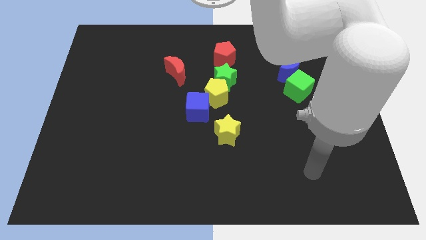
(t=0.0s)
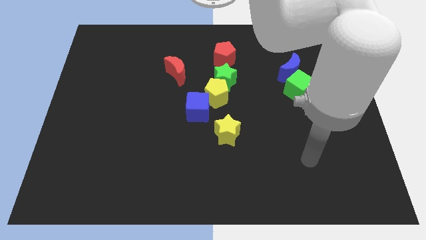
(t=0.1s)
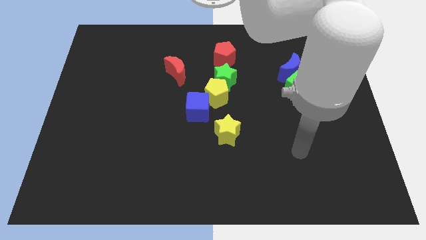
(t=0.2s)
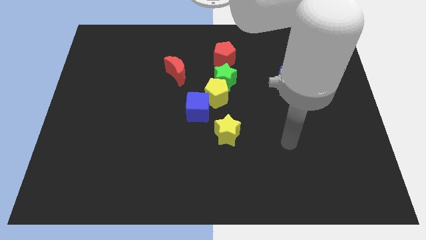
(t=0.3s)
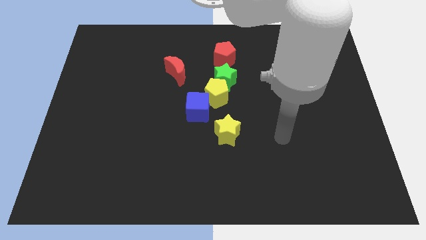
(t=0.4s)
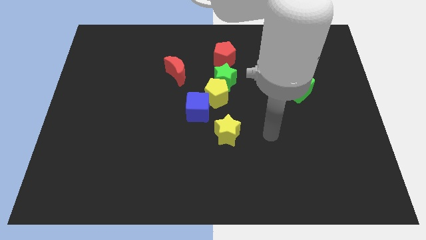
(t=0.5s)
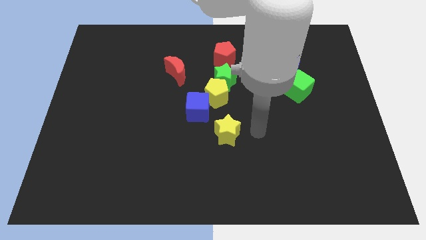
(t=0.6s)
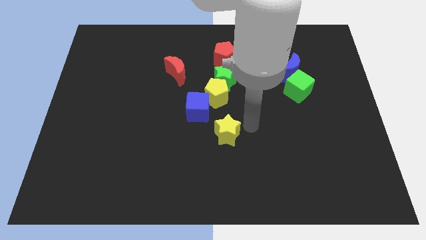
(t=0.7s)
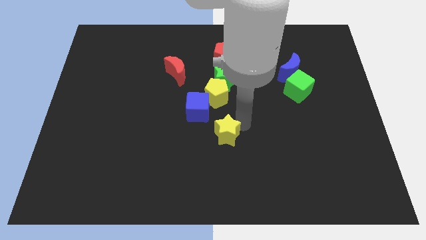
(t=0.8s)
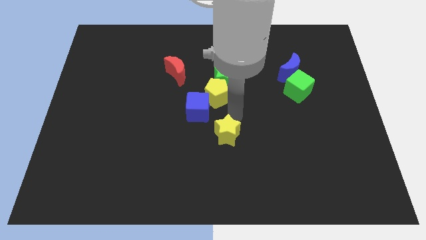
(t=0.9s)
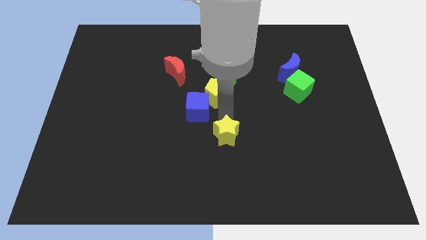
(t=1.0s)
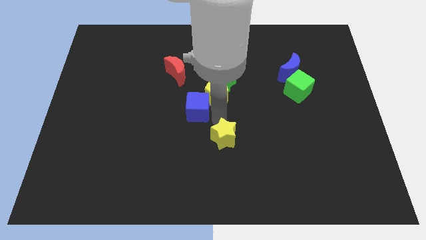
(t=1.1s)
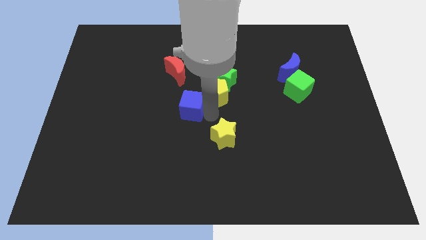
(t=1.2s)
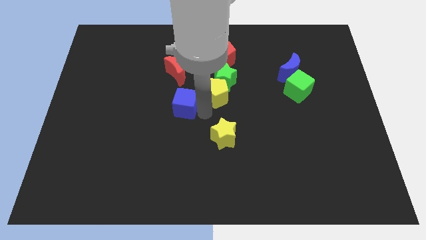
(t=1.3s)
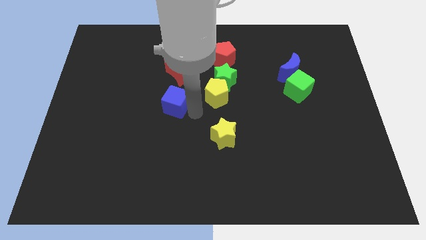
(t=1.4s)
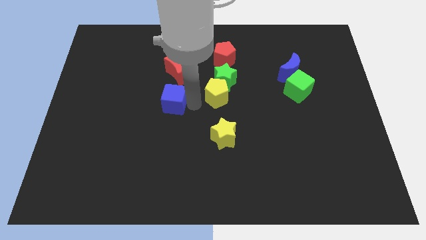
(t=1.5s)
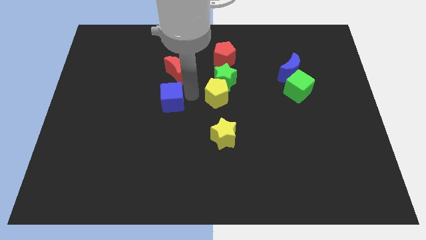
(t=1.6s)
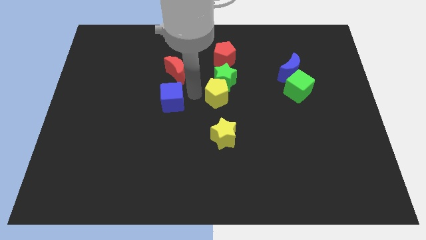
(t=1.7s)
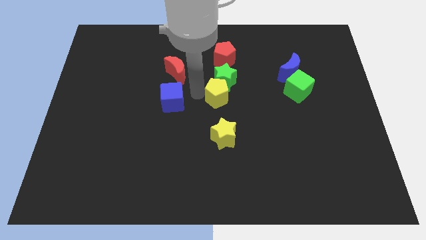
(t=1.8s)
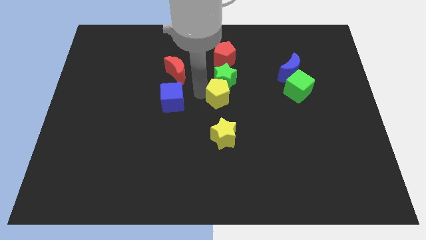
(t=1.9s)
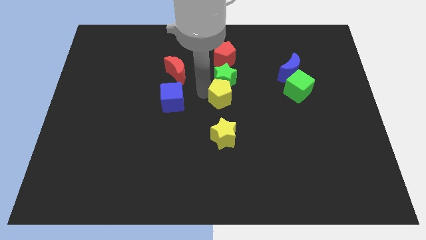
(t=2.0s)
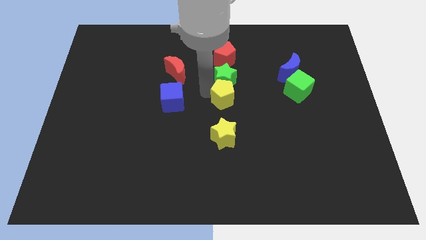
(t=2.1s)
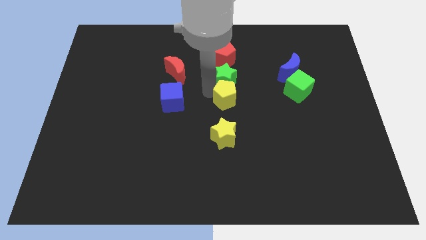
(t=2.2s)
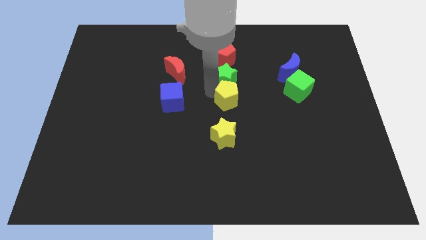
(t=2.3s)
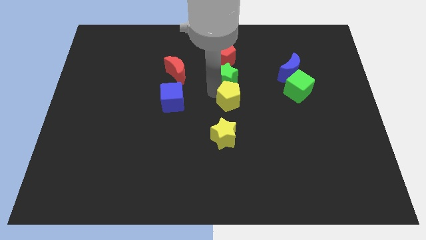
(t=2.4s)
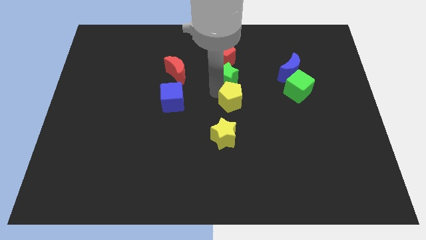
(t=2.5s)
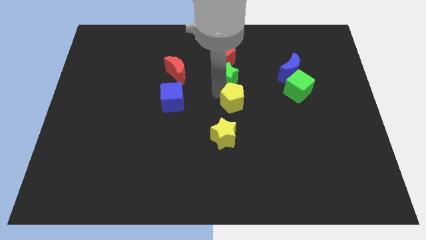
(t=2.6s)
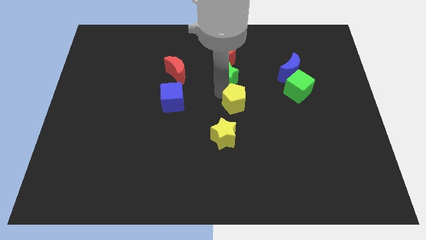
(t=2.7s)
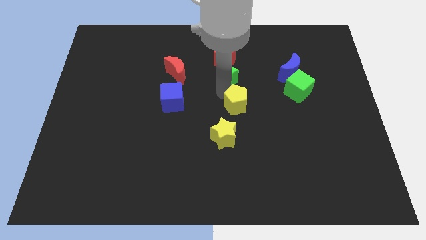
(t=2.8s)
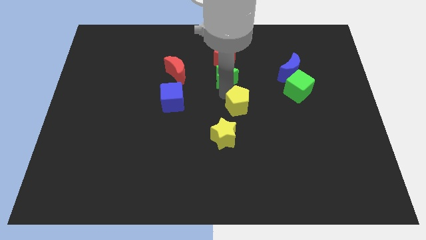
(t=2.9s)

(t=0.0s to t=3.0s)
separate the yellow pentagon from the green star and blue cube

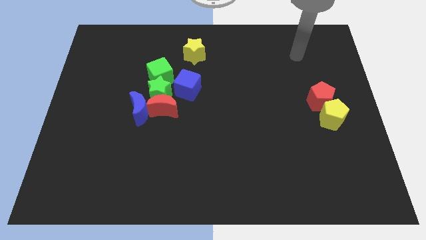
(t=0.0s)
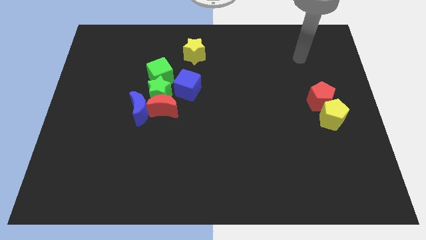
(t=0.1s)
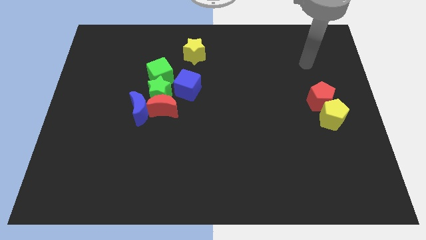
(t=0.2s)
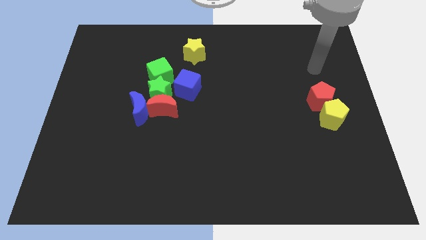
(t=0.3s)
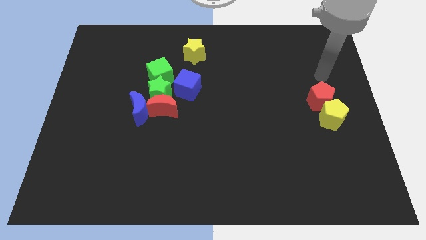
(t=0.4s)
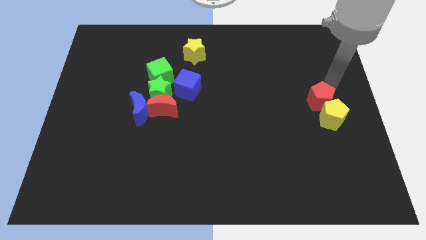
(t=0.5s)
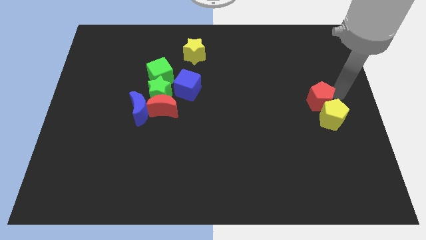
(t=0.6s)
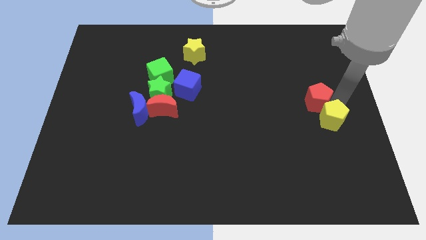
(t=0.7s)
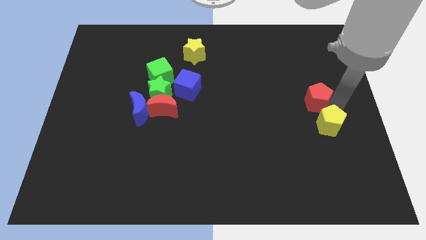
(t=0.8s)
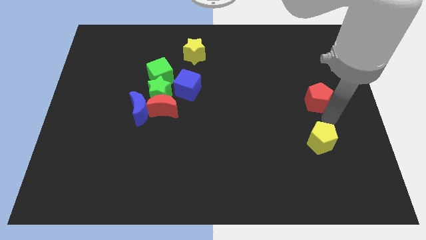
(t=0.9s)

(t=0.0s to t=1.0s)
move the red pentagon away from the yellow pentagon

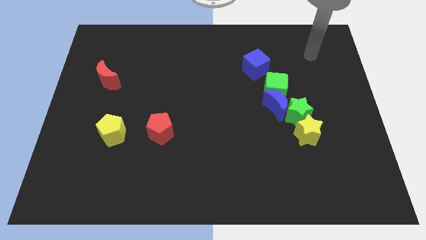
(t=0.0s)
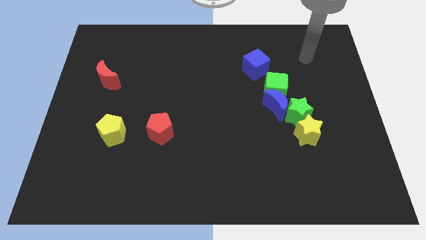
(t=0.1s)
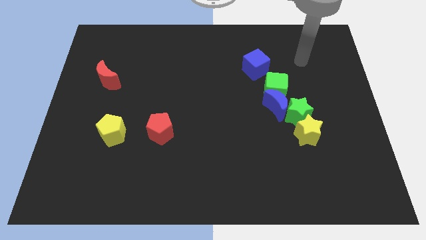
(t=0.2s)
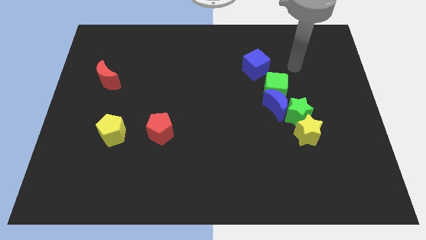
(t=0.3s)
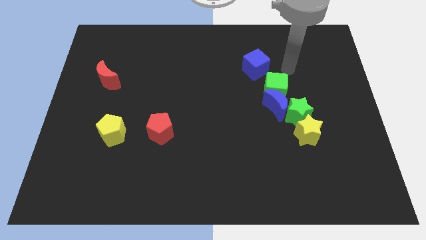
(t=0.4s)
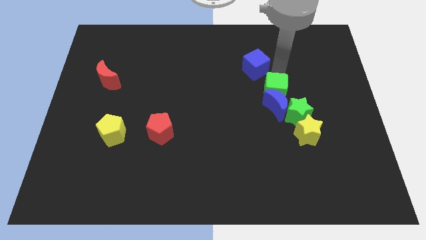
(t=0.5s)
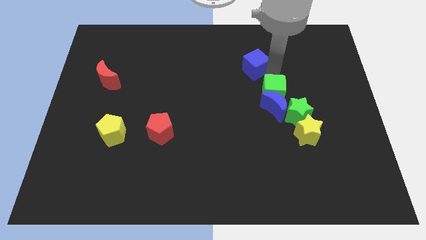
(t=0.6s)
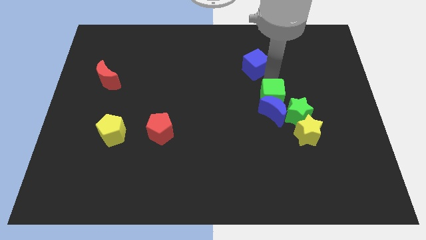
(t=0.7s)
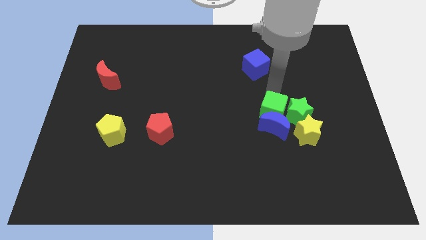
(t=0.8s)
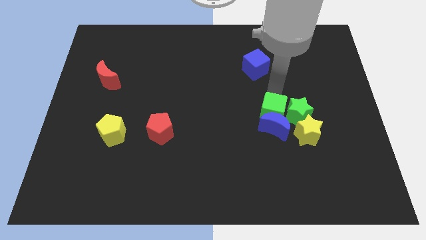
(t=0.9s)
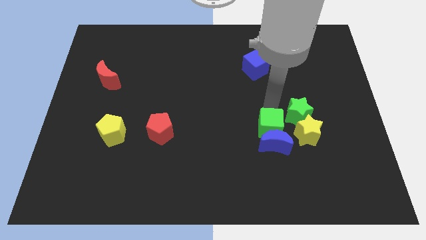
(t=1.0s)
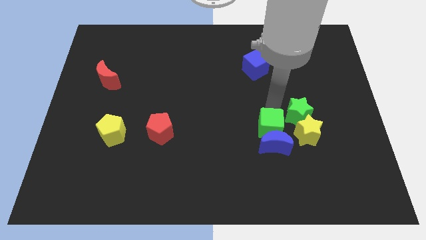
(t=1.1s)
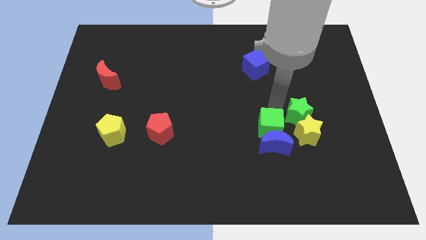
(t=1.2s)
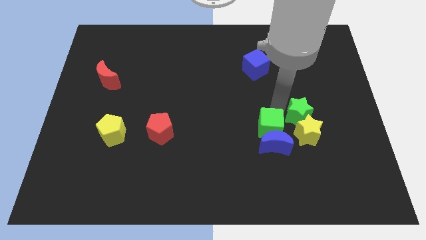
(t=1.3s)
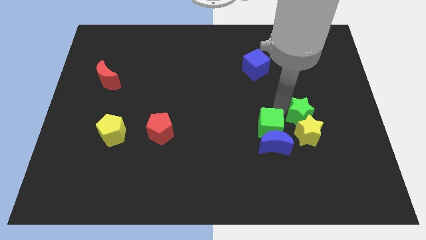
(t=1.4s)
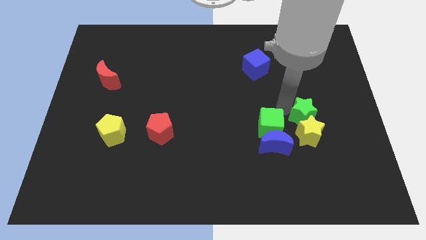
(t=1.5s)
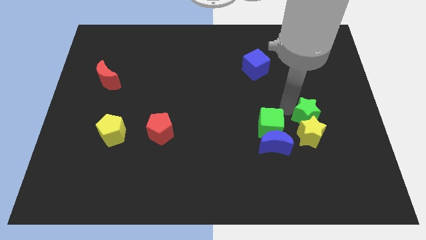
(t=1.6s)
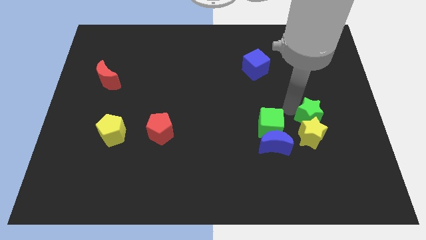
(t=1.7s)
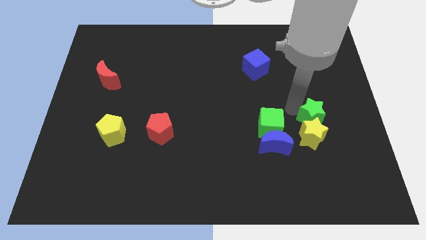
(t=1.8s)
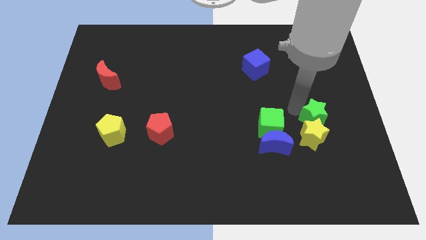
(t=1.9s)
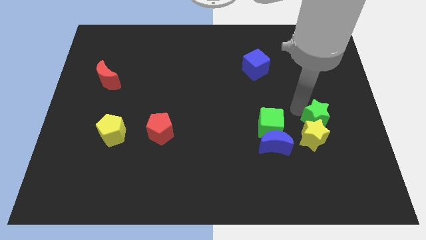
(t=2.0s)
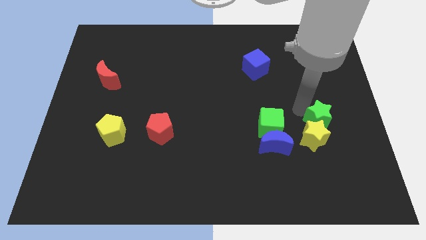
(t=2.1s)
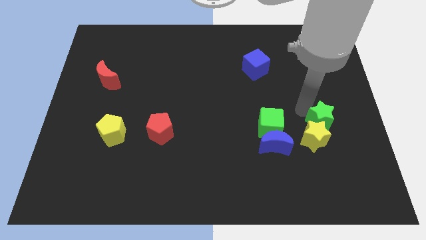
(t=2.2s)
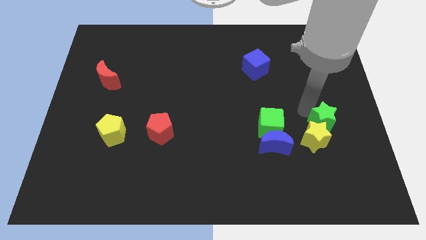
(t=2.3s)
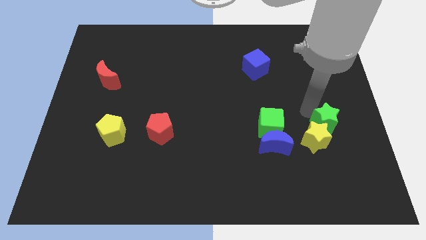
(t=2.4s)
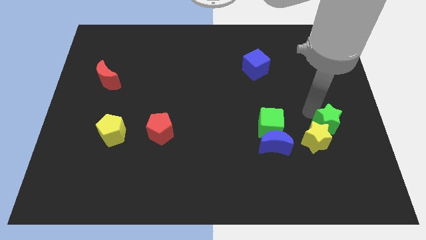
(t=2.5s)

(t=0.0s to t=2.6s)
pull the green star apart from the yellow star, blue moon, and green cube

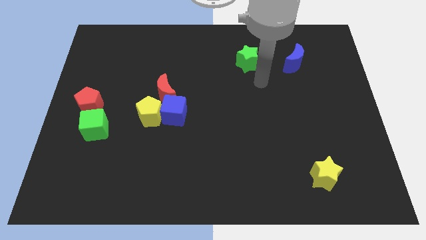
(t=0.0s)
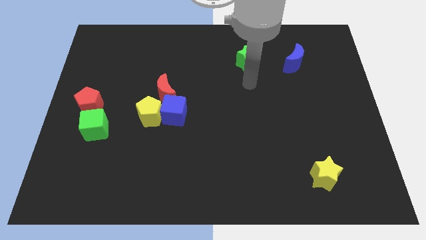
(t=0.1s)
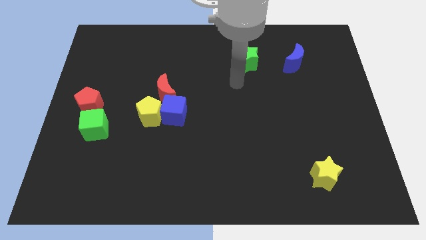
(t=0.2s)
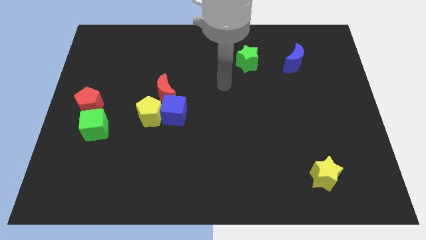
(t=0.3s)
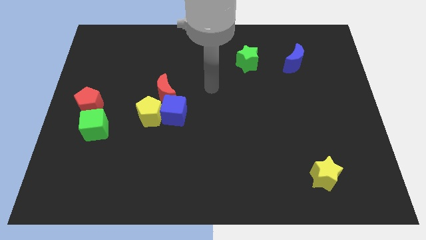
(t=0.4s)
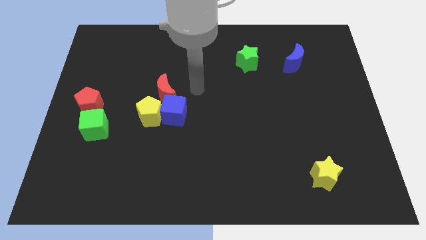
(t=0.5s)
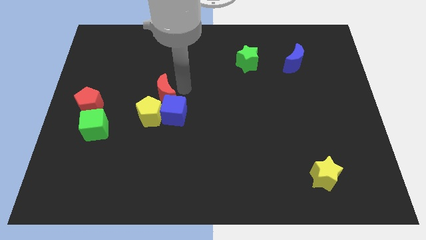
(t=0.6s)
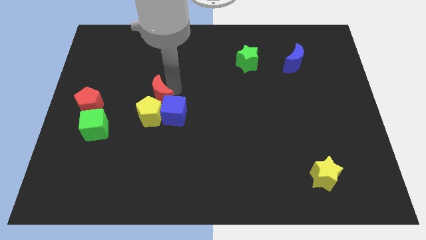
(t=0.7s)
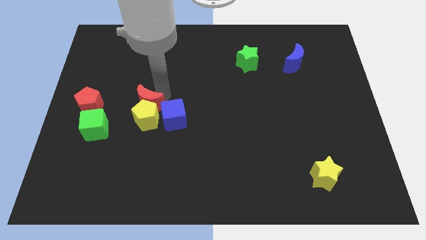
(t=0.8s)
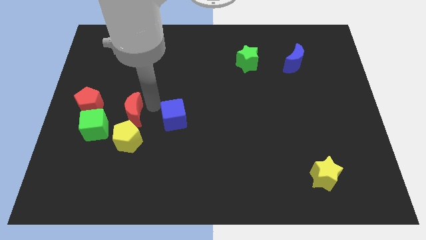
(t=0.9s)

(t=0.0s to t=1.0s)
move the blue cube away from the yellow pentagon and red moon

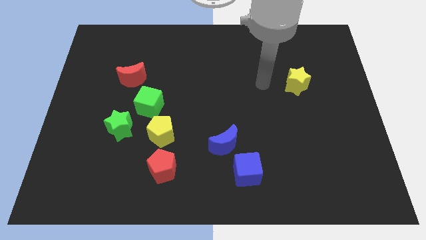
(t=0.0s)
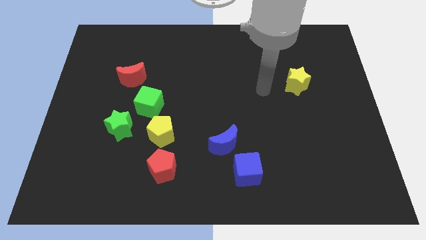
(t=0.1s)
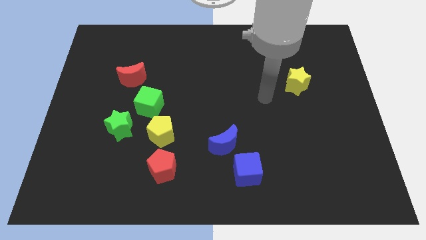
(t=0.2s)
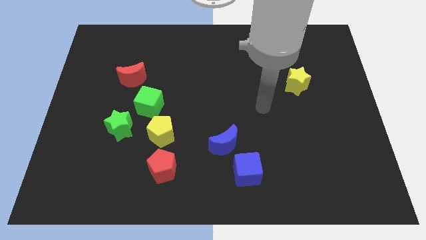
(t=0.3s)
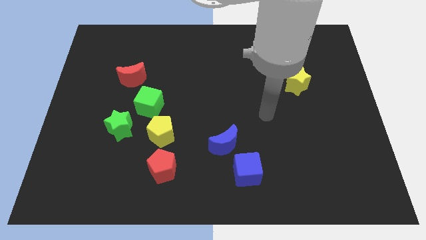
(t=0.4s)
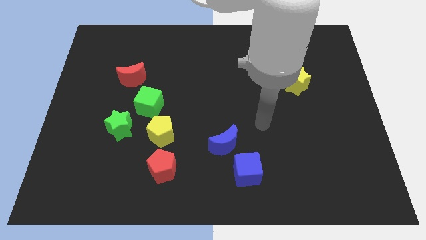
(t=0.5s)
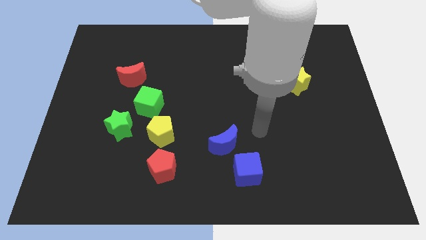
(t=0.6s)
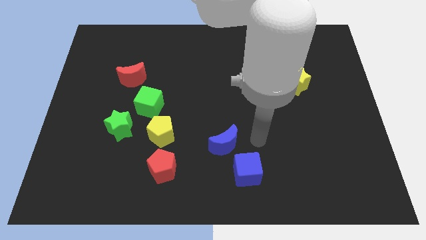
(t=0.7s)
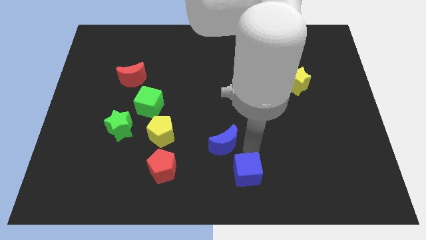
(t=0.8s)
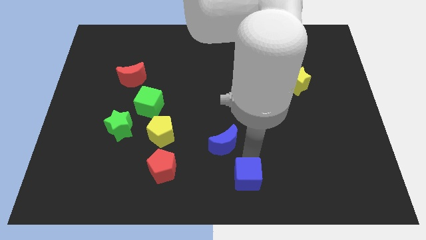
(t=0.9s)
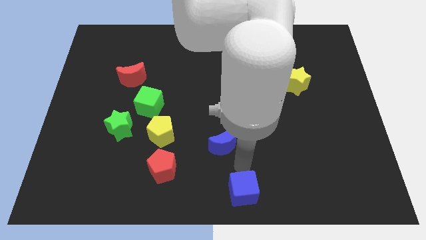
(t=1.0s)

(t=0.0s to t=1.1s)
separate the blue moon from the blue cube

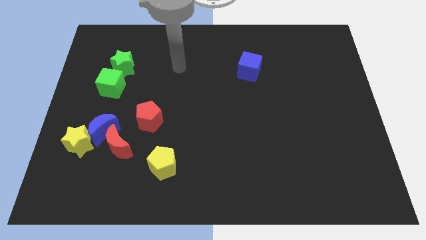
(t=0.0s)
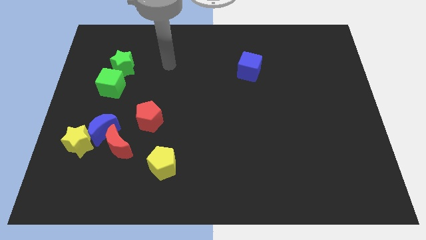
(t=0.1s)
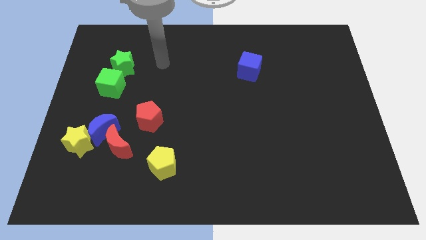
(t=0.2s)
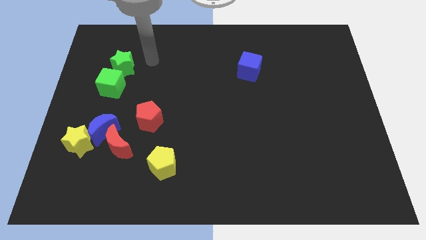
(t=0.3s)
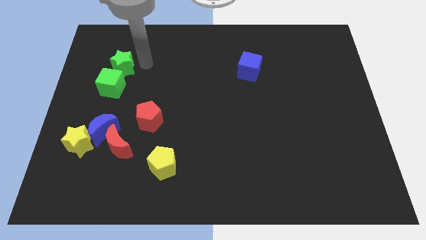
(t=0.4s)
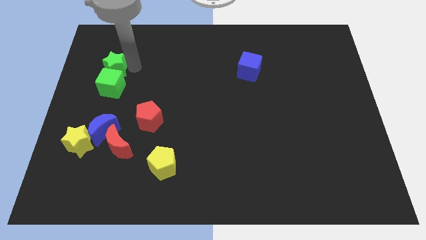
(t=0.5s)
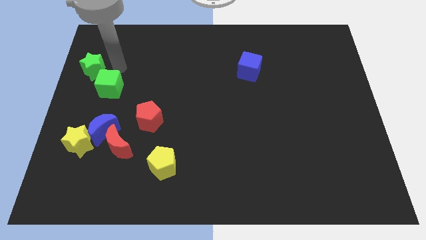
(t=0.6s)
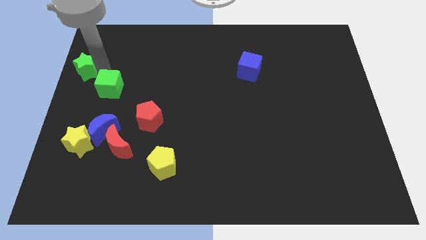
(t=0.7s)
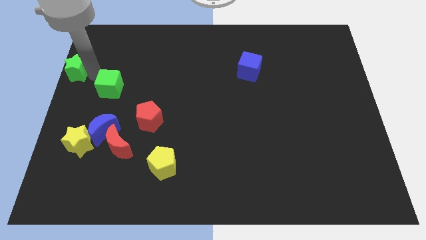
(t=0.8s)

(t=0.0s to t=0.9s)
separate the green cube from the green star
